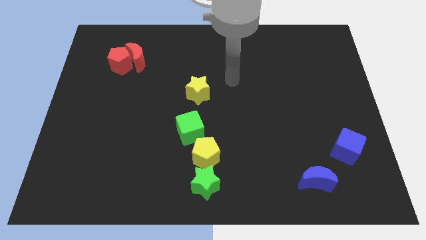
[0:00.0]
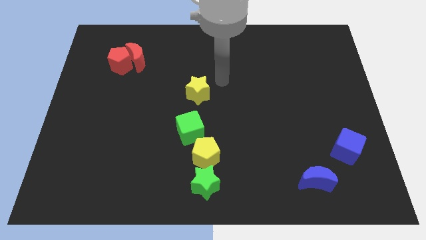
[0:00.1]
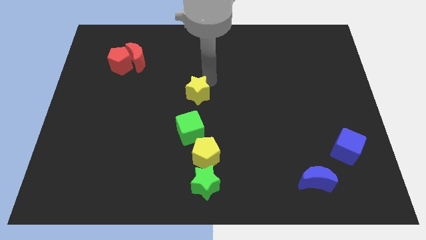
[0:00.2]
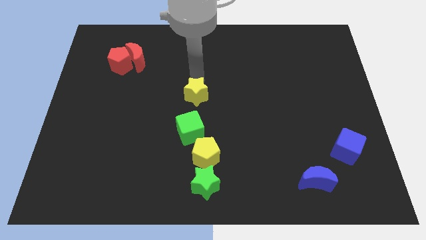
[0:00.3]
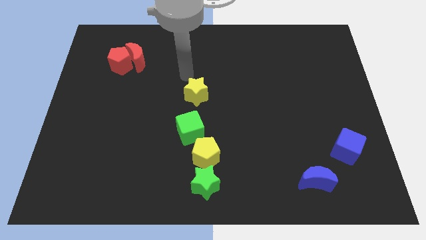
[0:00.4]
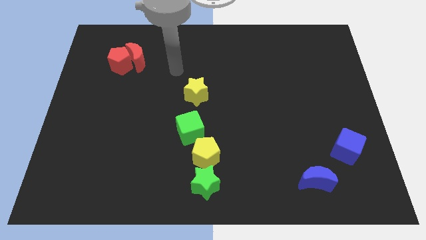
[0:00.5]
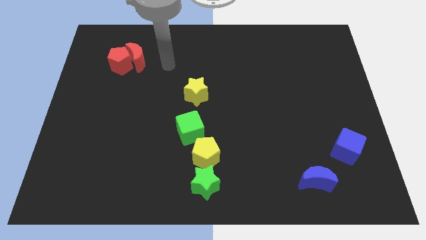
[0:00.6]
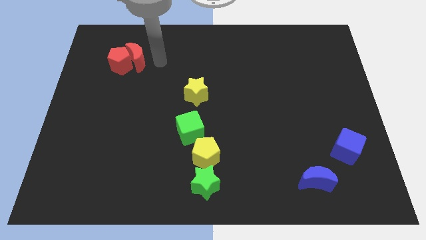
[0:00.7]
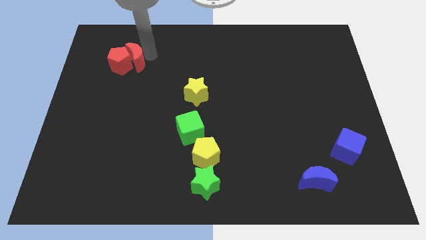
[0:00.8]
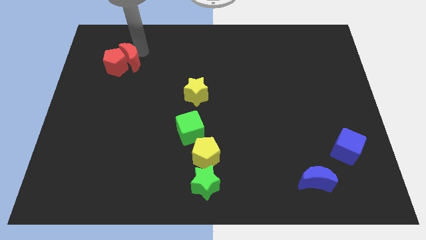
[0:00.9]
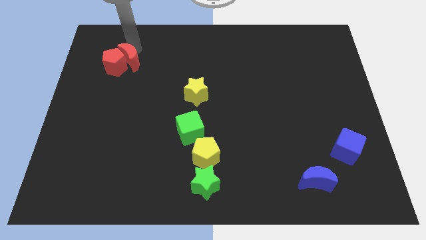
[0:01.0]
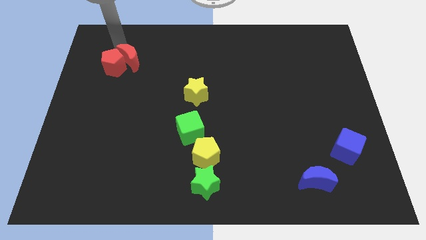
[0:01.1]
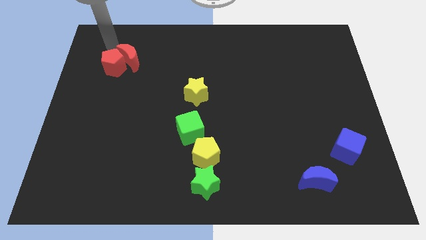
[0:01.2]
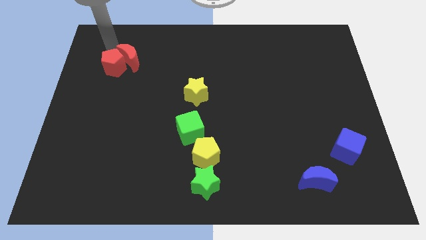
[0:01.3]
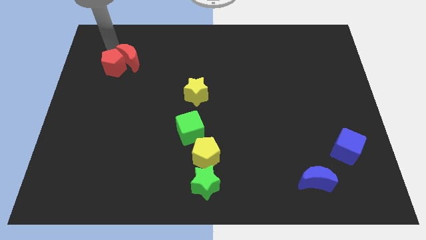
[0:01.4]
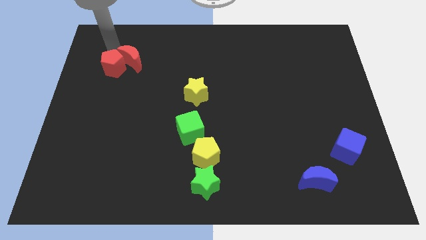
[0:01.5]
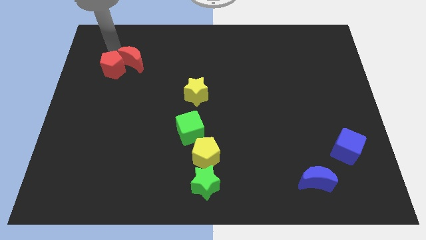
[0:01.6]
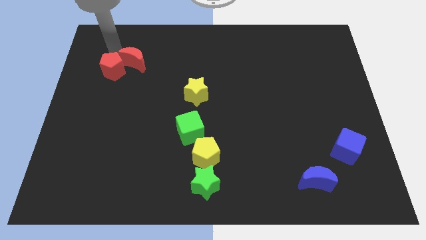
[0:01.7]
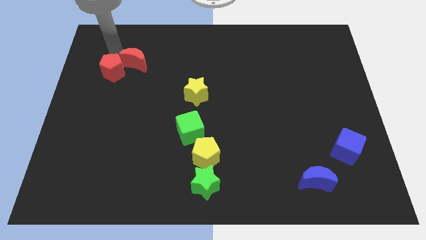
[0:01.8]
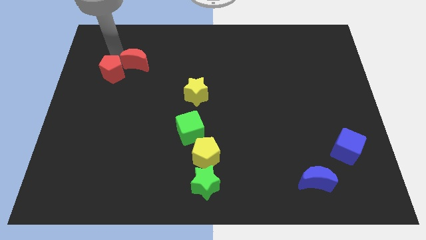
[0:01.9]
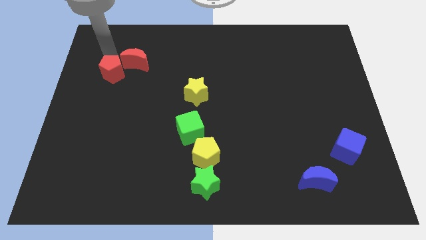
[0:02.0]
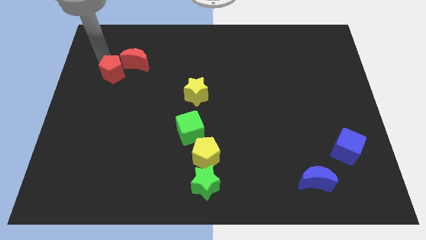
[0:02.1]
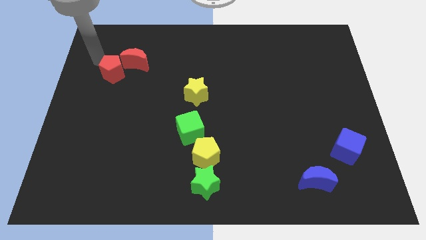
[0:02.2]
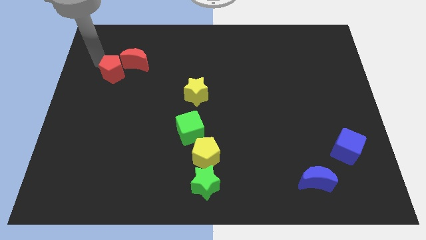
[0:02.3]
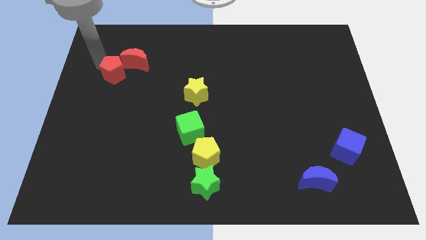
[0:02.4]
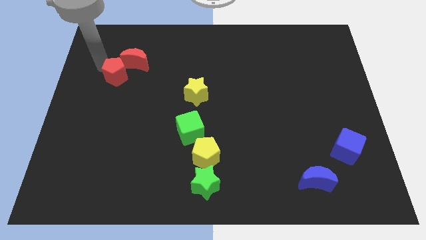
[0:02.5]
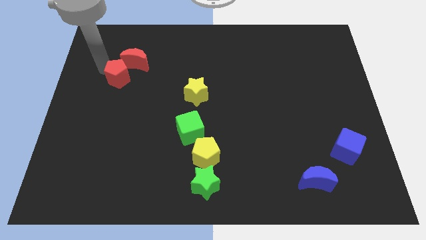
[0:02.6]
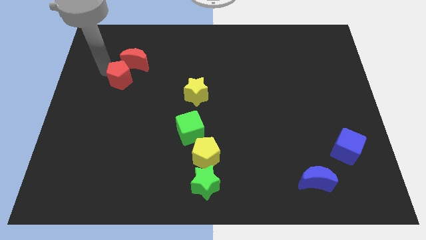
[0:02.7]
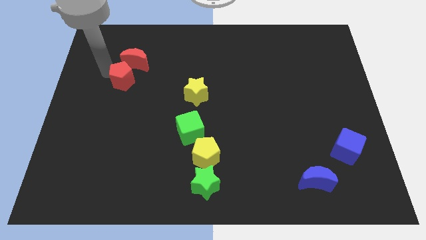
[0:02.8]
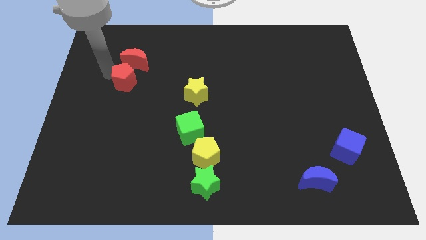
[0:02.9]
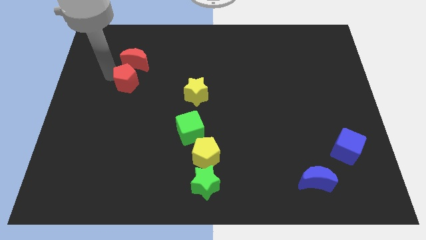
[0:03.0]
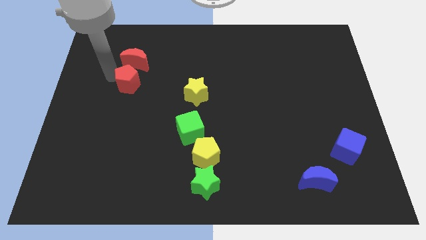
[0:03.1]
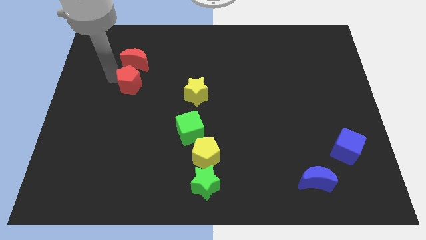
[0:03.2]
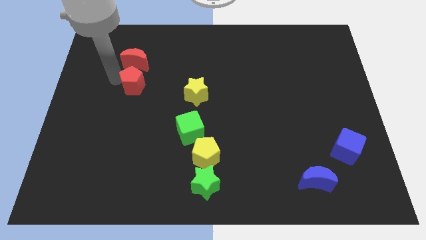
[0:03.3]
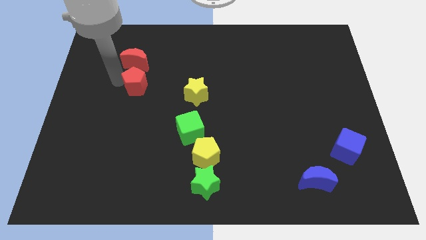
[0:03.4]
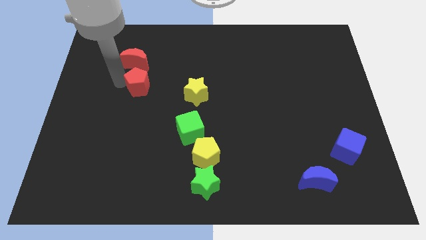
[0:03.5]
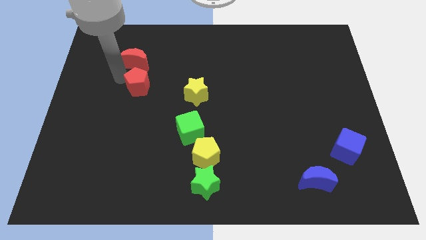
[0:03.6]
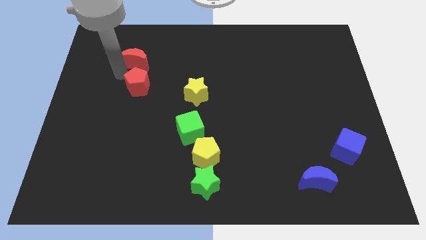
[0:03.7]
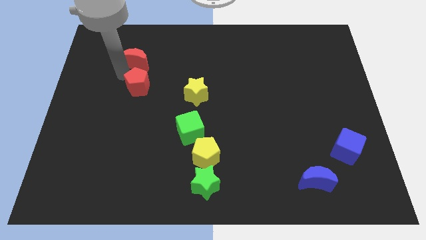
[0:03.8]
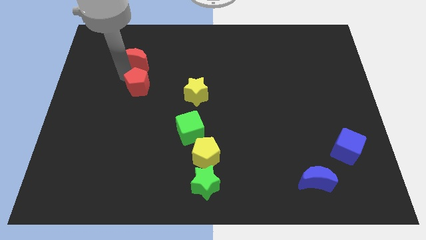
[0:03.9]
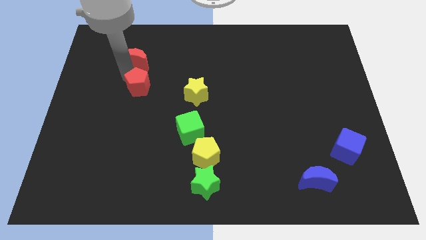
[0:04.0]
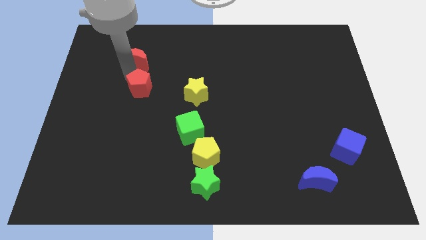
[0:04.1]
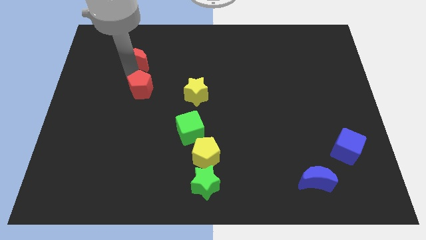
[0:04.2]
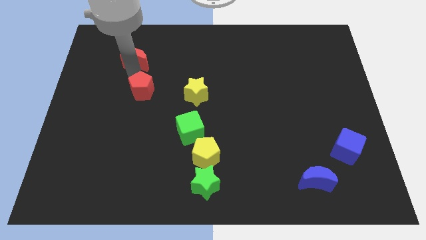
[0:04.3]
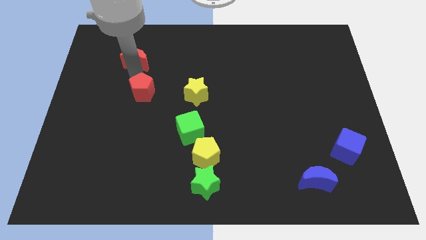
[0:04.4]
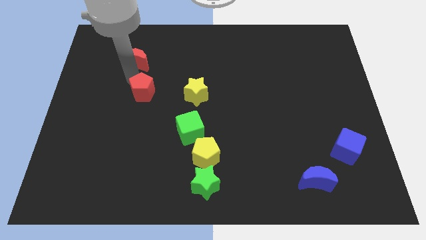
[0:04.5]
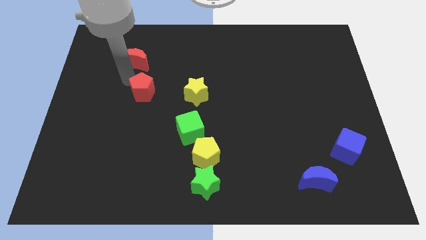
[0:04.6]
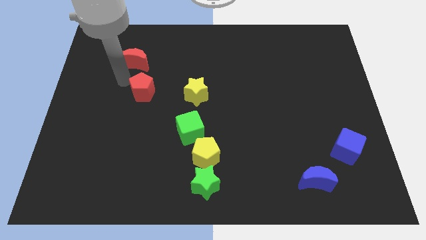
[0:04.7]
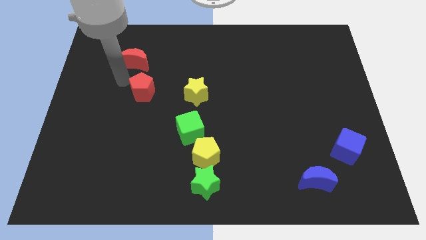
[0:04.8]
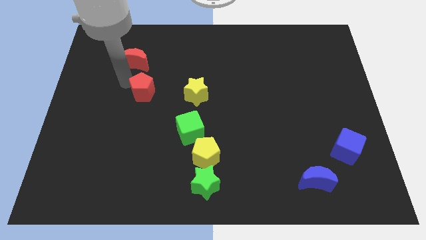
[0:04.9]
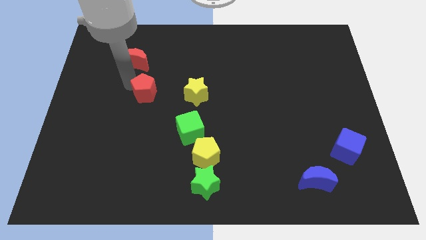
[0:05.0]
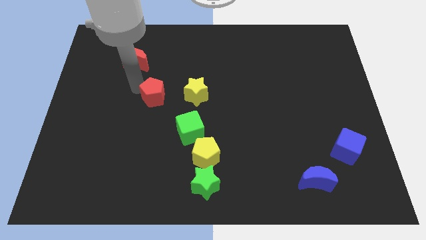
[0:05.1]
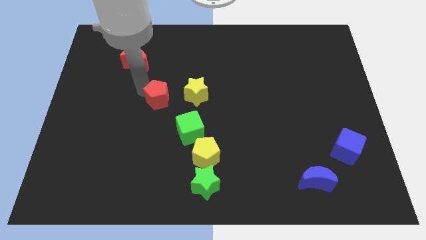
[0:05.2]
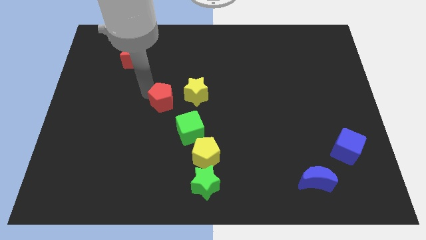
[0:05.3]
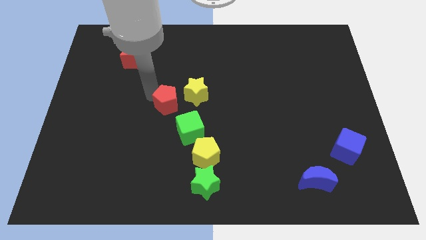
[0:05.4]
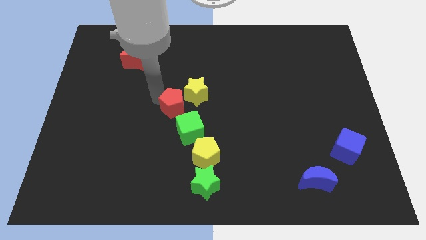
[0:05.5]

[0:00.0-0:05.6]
slide the red pentagon downwards and then right

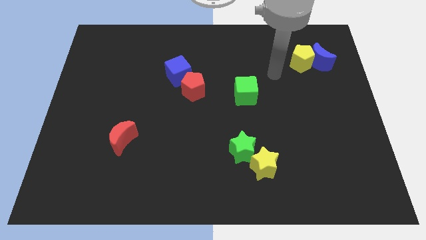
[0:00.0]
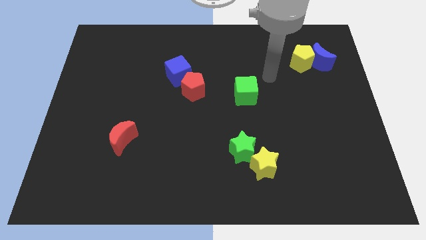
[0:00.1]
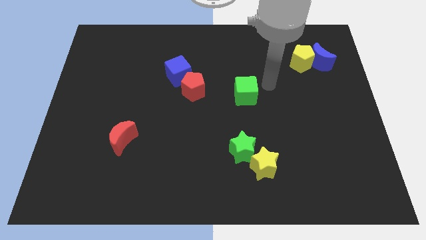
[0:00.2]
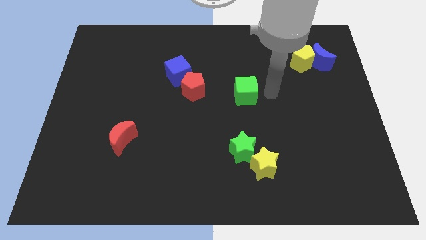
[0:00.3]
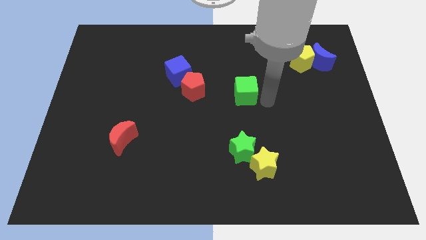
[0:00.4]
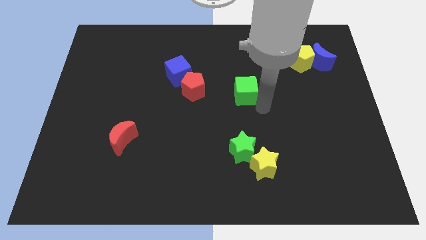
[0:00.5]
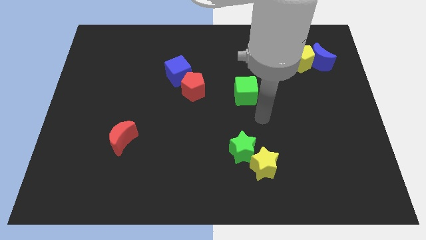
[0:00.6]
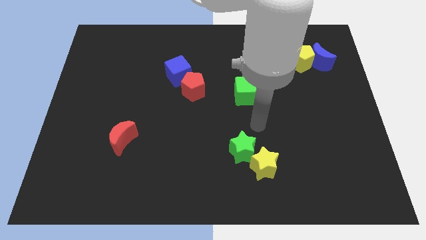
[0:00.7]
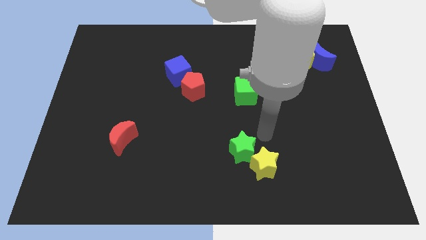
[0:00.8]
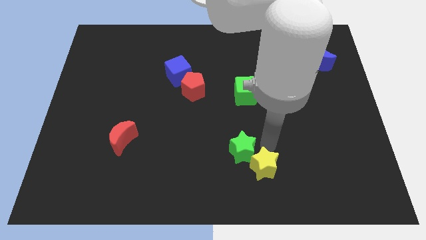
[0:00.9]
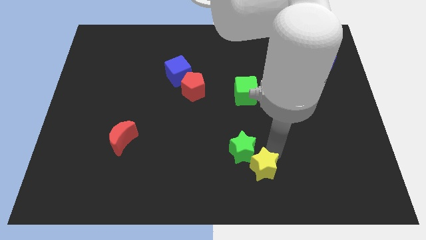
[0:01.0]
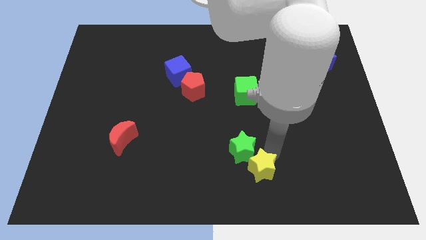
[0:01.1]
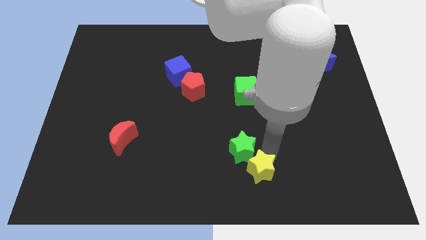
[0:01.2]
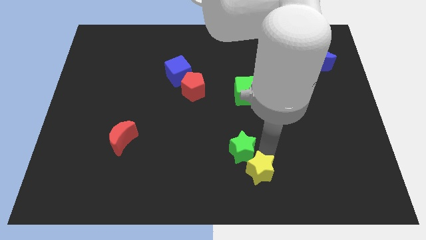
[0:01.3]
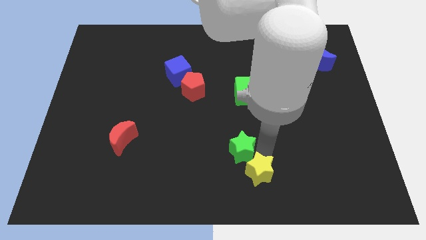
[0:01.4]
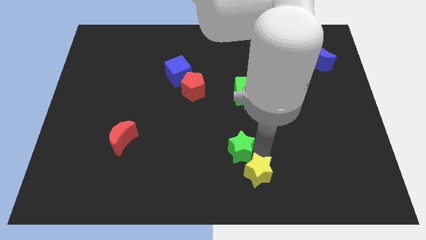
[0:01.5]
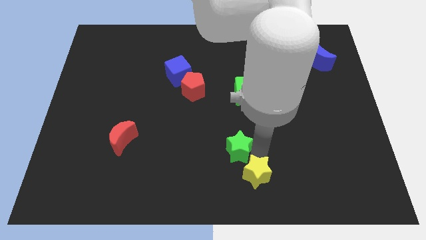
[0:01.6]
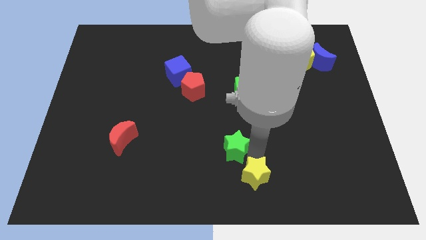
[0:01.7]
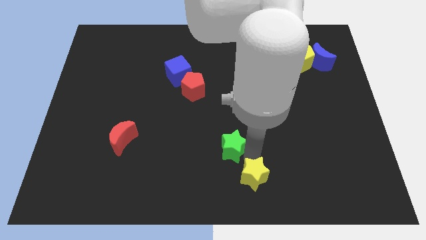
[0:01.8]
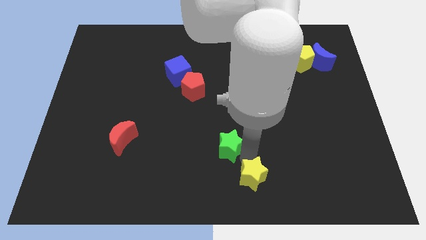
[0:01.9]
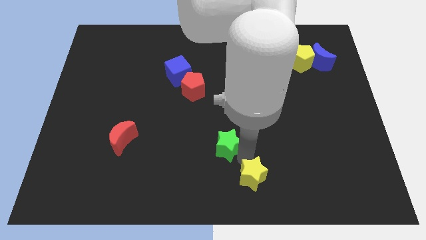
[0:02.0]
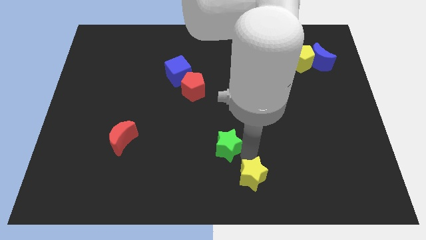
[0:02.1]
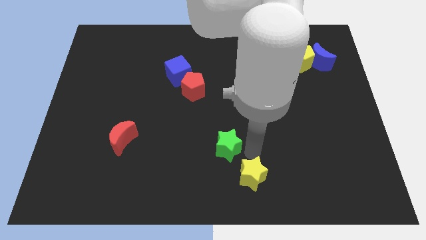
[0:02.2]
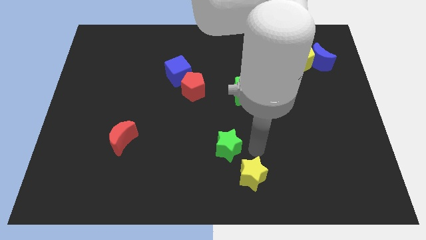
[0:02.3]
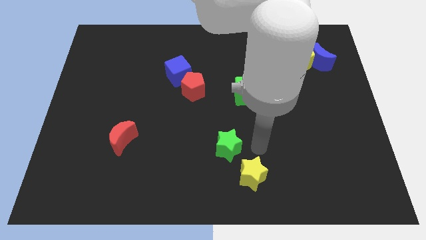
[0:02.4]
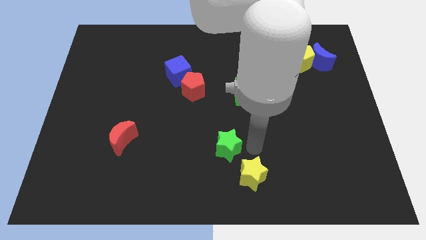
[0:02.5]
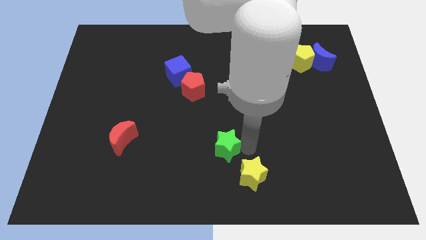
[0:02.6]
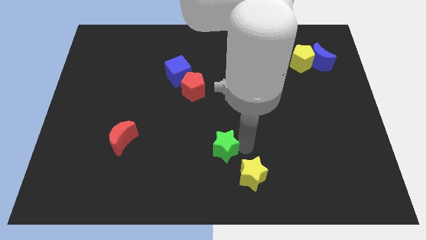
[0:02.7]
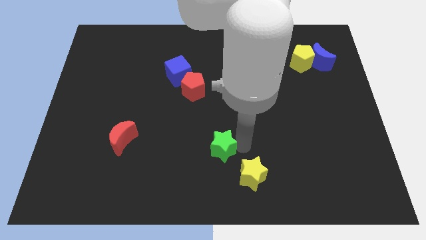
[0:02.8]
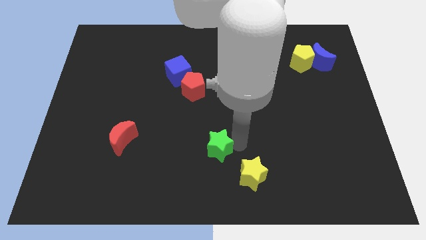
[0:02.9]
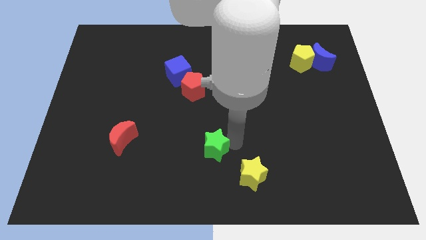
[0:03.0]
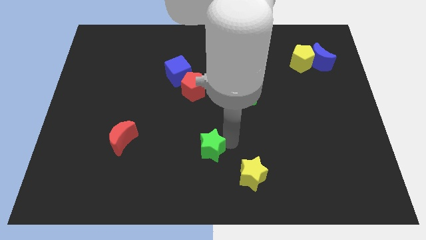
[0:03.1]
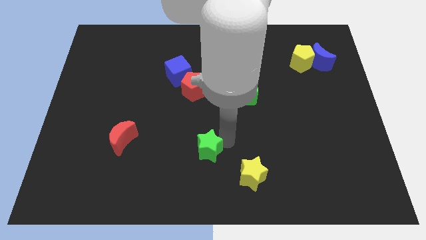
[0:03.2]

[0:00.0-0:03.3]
move the green star somewhat left
